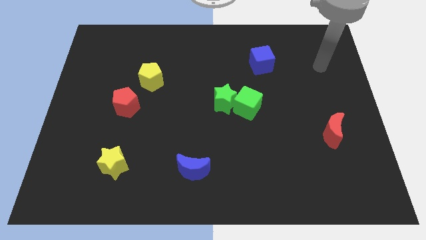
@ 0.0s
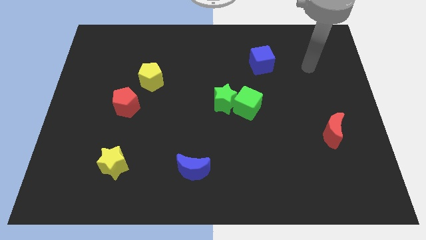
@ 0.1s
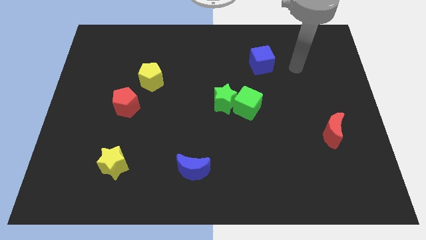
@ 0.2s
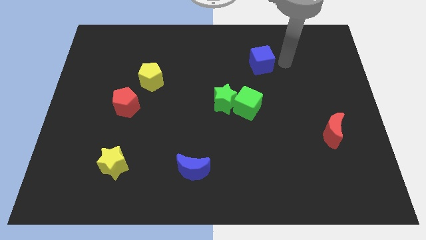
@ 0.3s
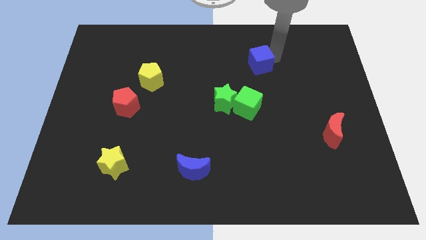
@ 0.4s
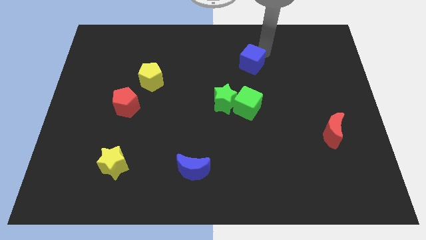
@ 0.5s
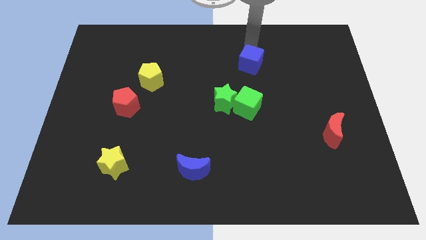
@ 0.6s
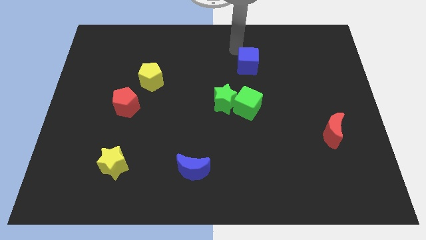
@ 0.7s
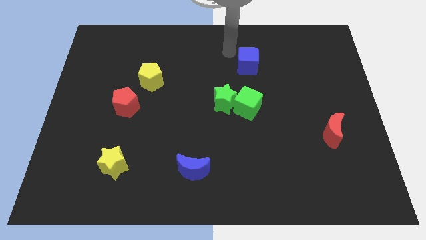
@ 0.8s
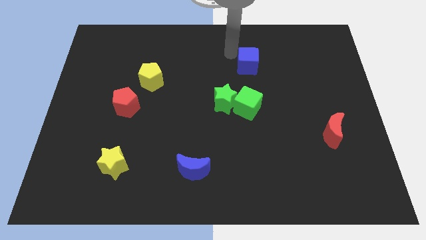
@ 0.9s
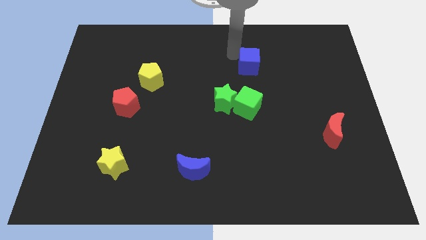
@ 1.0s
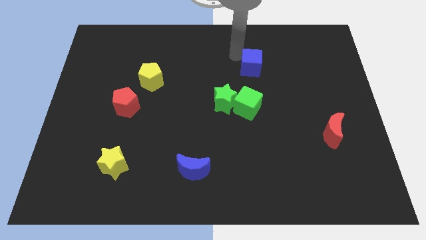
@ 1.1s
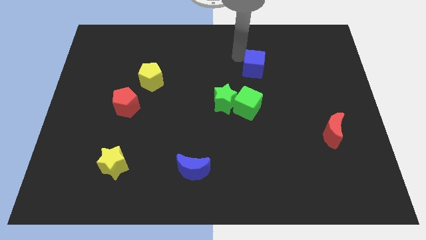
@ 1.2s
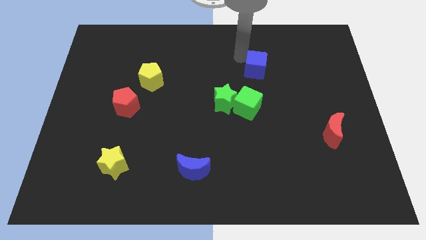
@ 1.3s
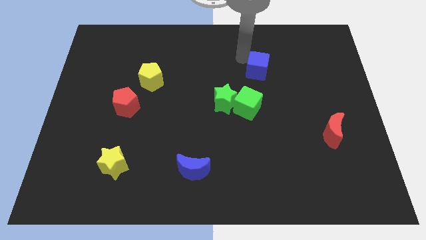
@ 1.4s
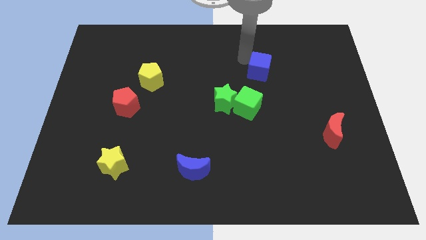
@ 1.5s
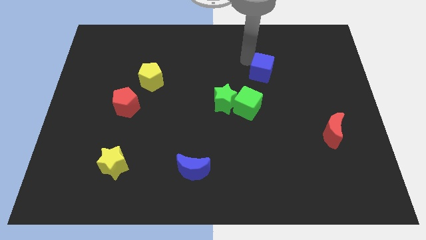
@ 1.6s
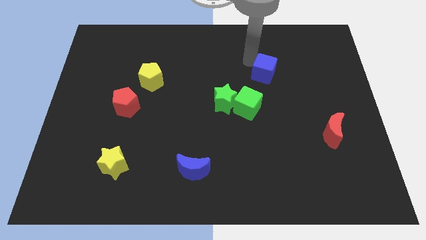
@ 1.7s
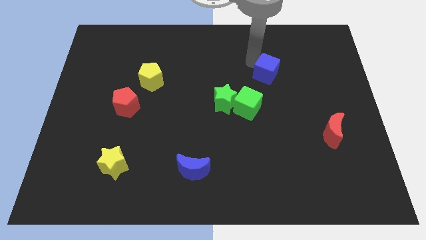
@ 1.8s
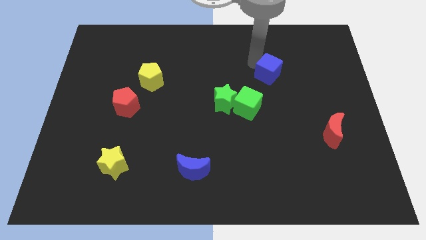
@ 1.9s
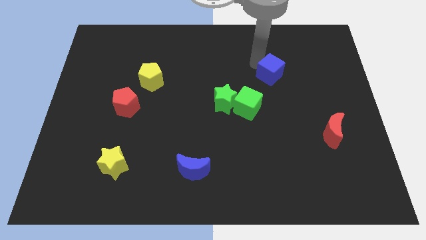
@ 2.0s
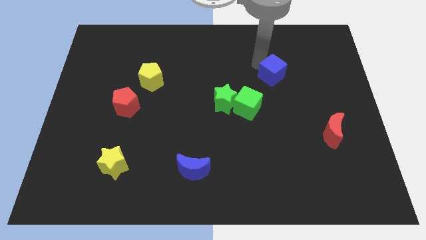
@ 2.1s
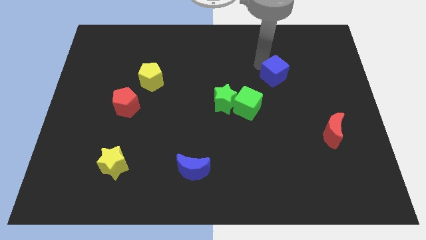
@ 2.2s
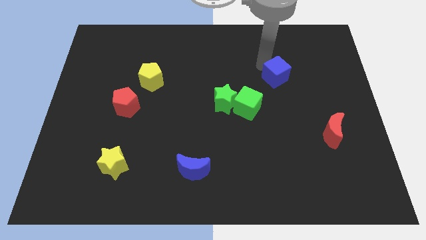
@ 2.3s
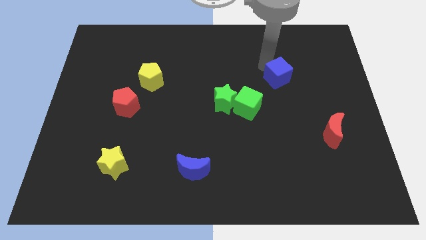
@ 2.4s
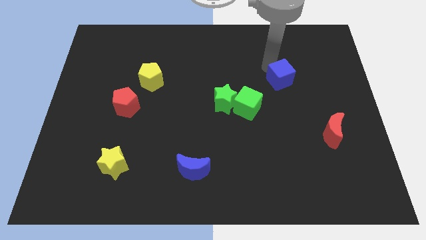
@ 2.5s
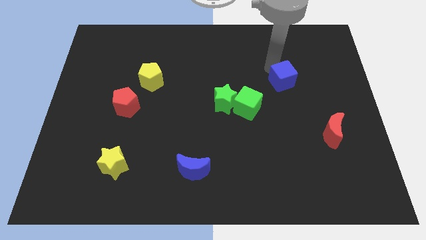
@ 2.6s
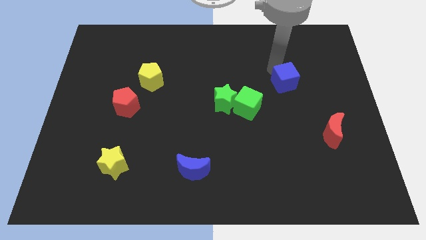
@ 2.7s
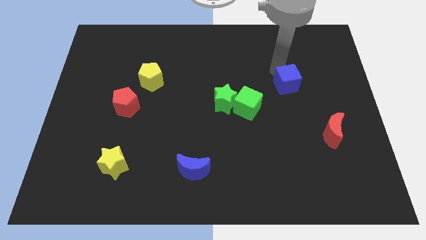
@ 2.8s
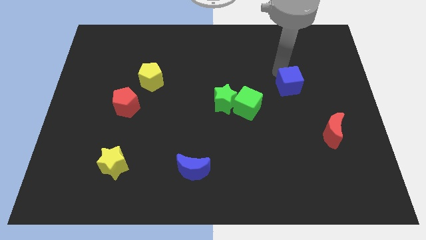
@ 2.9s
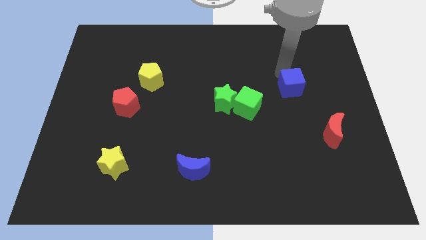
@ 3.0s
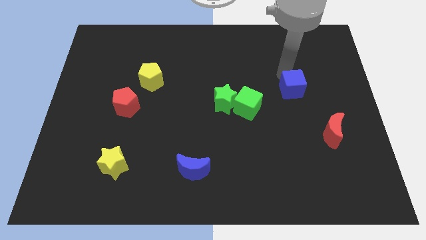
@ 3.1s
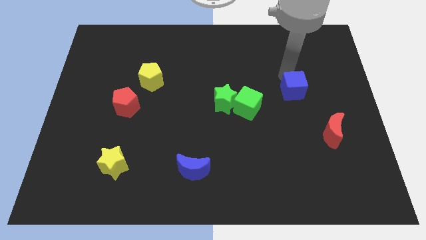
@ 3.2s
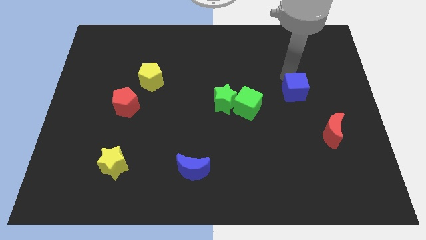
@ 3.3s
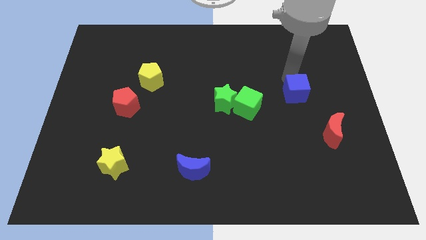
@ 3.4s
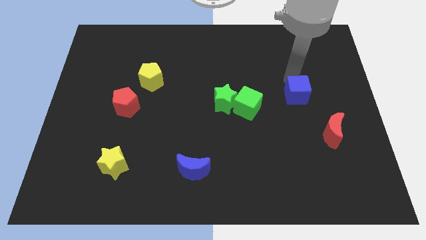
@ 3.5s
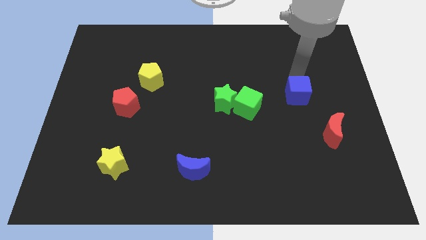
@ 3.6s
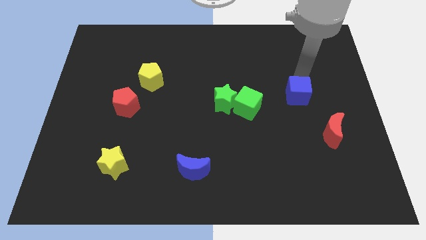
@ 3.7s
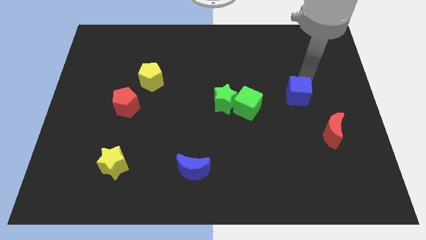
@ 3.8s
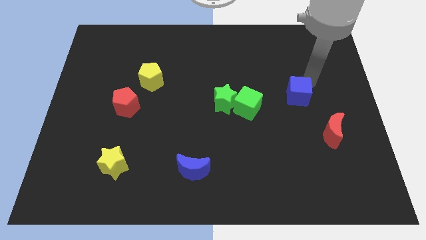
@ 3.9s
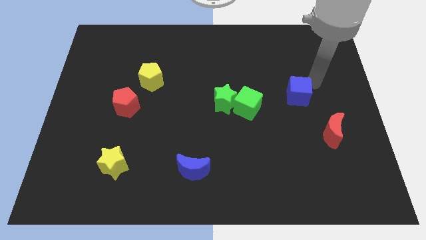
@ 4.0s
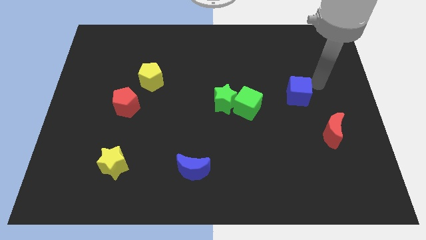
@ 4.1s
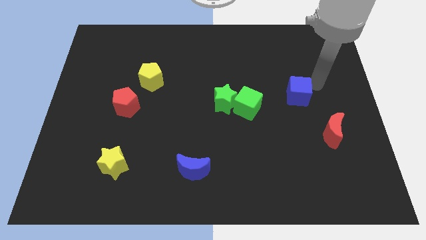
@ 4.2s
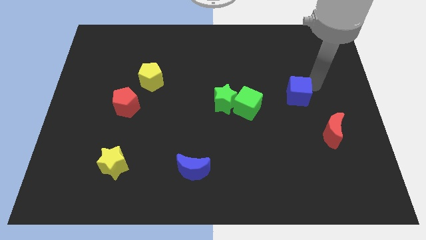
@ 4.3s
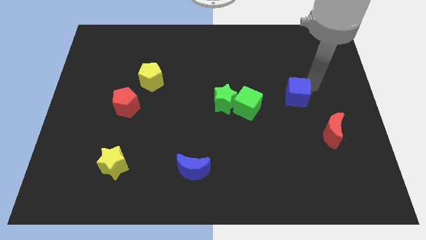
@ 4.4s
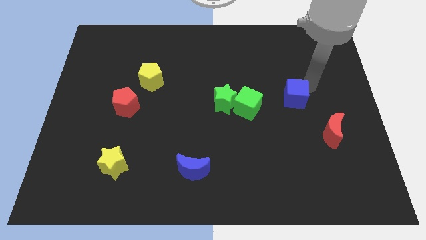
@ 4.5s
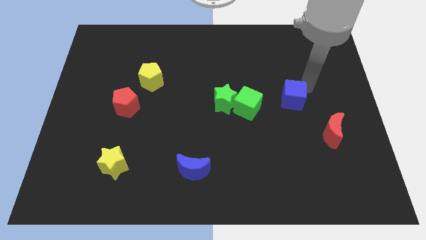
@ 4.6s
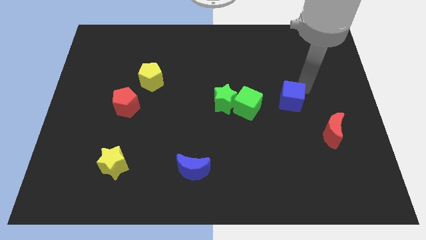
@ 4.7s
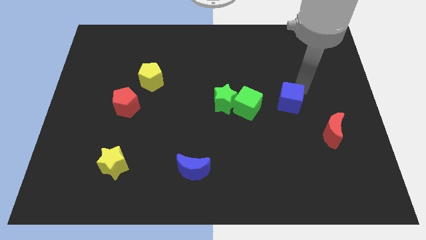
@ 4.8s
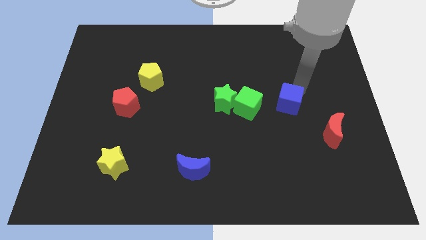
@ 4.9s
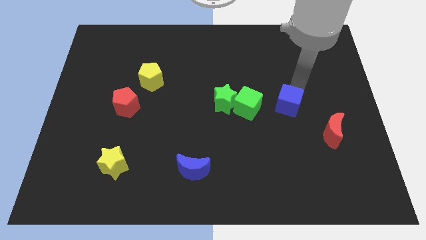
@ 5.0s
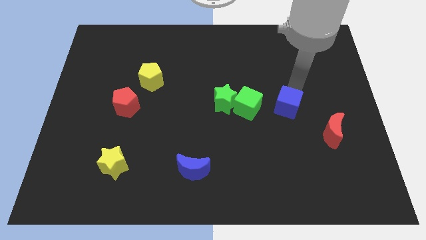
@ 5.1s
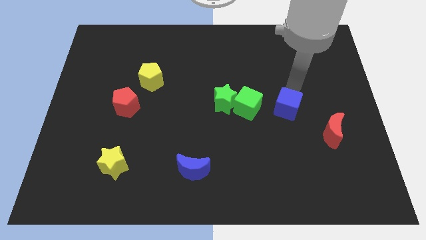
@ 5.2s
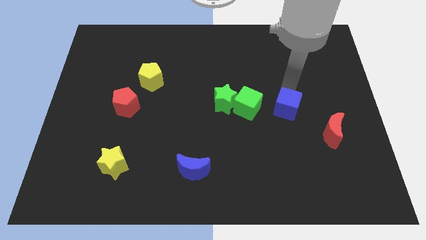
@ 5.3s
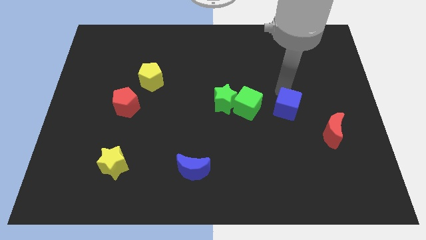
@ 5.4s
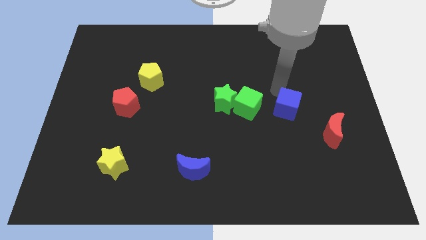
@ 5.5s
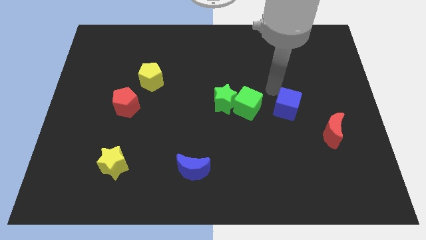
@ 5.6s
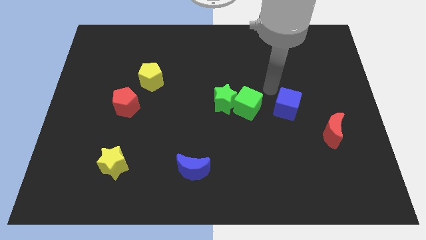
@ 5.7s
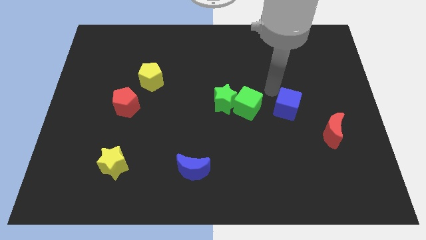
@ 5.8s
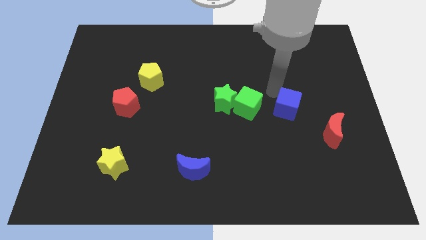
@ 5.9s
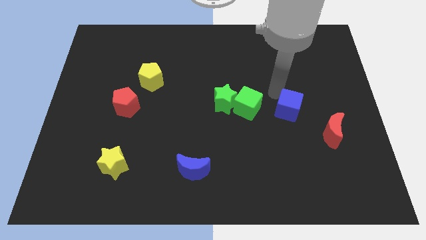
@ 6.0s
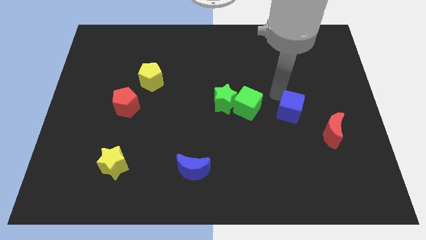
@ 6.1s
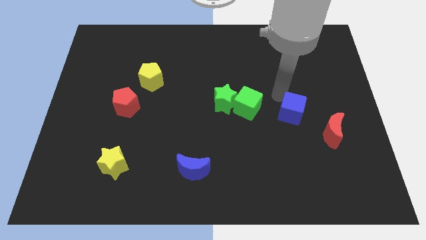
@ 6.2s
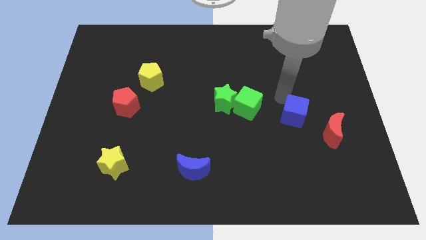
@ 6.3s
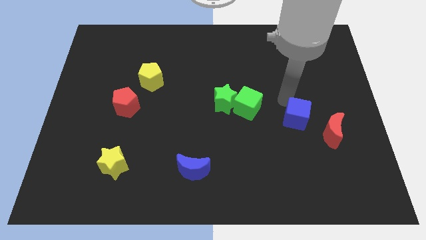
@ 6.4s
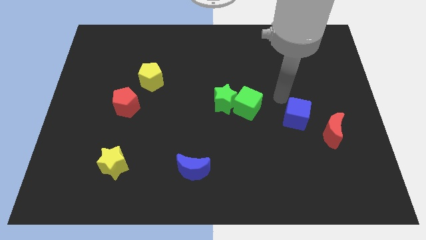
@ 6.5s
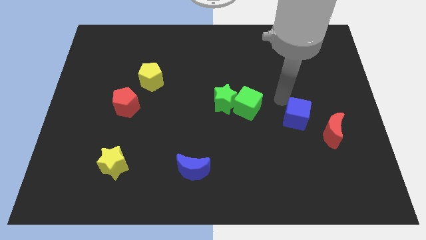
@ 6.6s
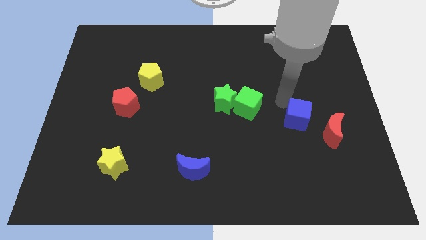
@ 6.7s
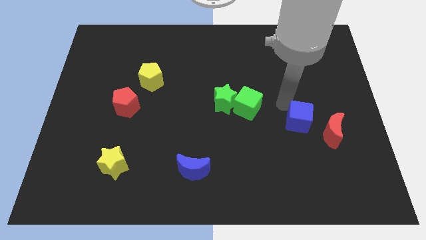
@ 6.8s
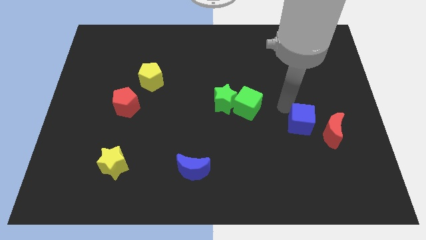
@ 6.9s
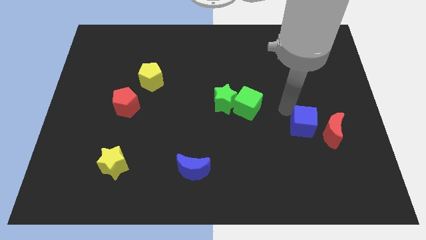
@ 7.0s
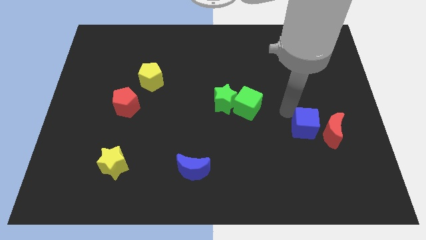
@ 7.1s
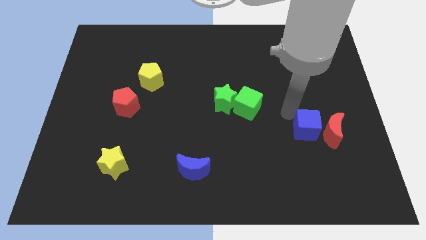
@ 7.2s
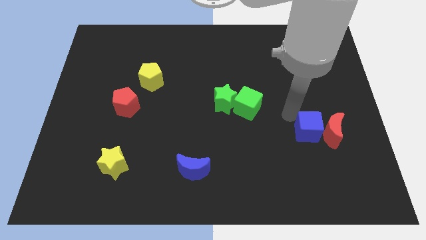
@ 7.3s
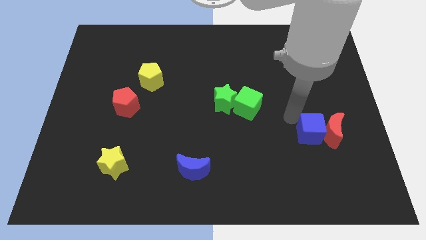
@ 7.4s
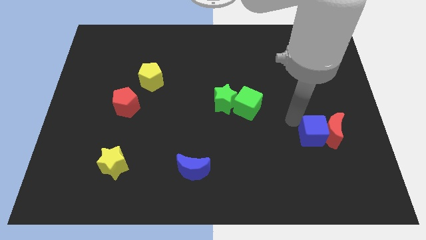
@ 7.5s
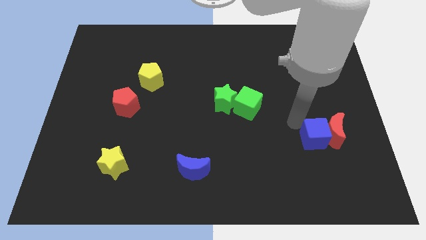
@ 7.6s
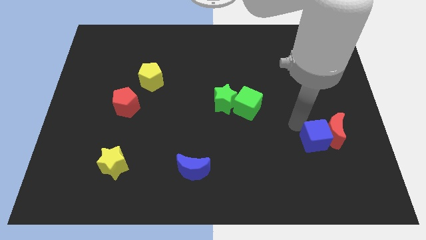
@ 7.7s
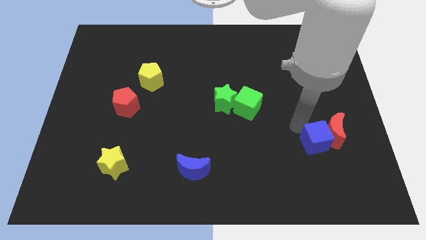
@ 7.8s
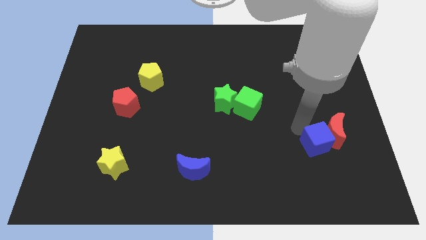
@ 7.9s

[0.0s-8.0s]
move the blue cube to the bottom of the red moon
